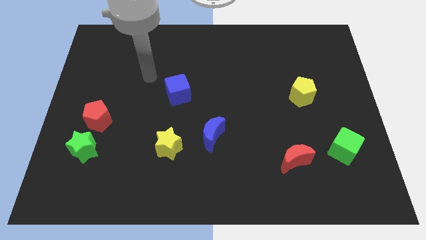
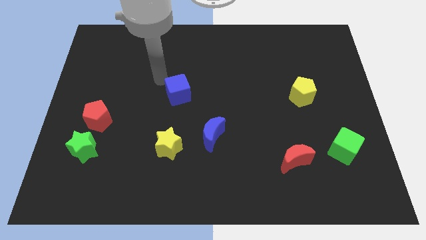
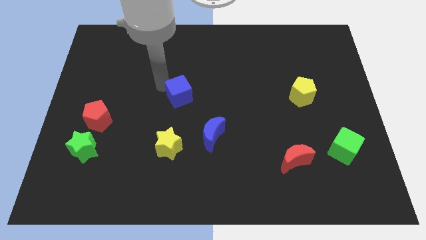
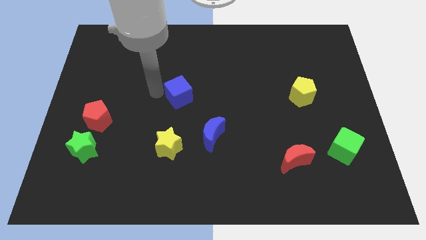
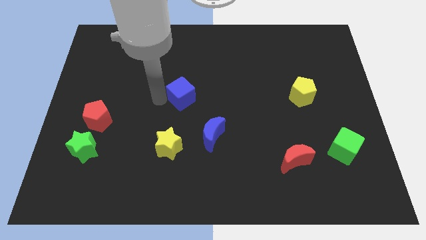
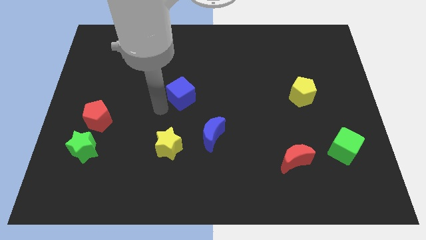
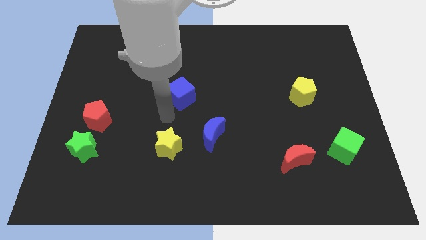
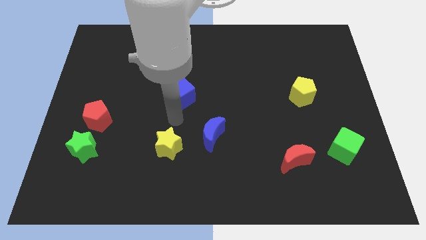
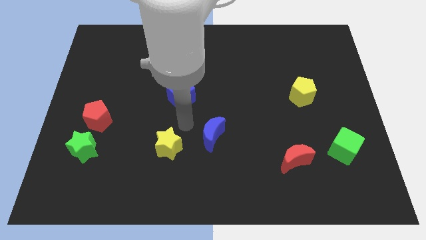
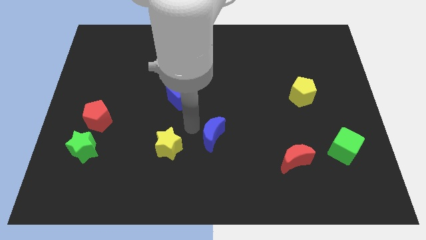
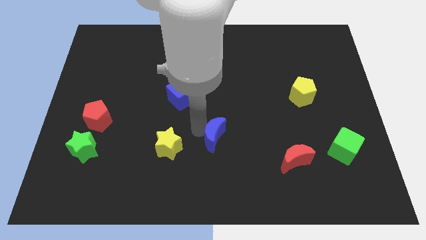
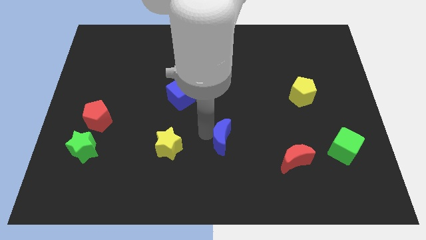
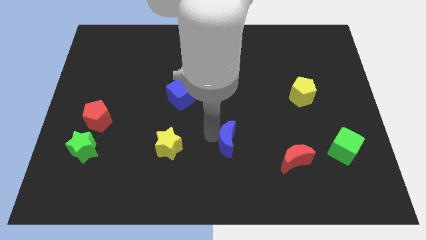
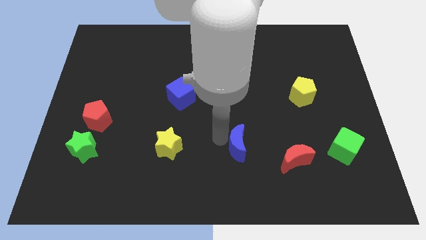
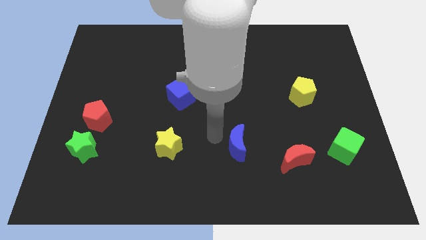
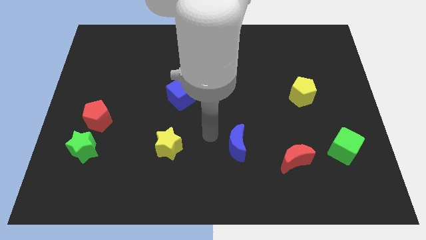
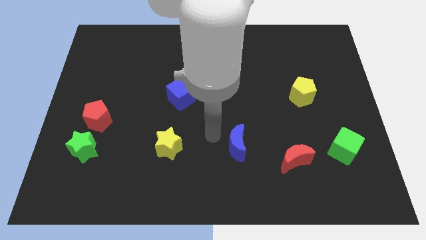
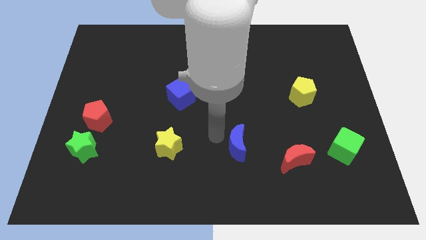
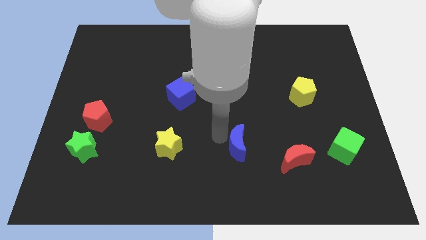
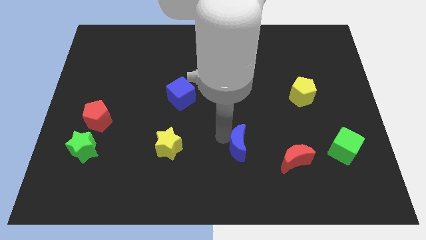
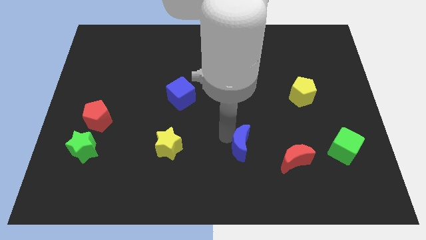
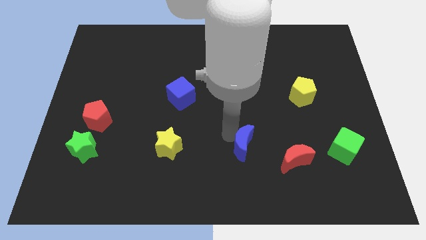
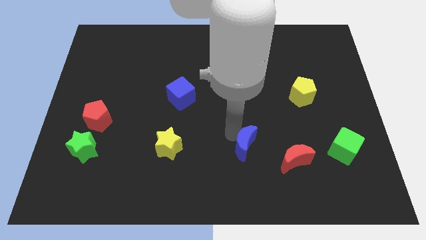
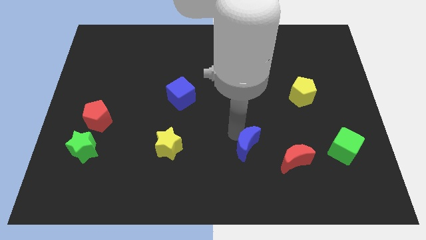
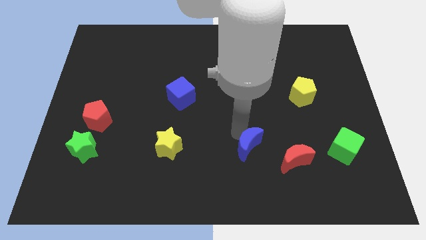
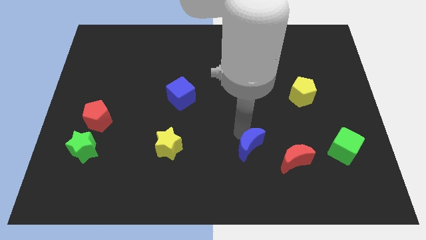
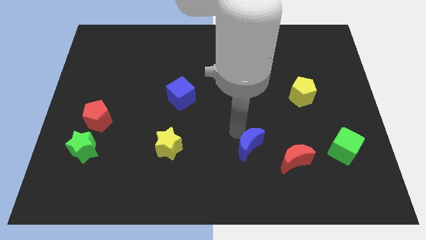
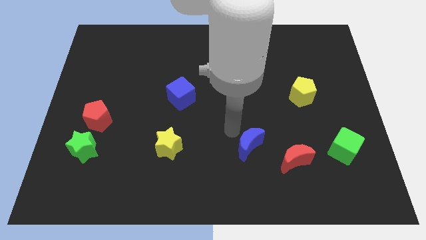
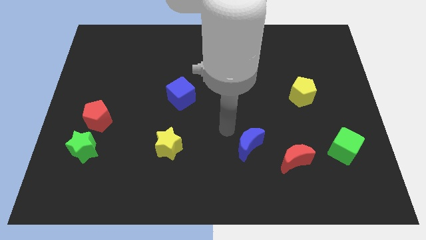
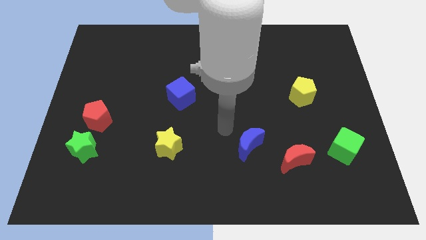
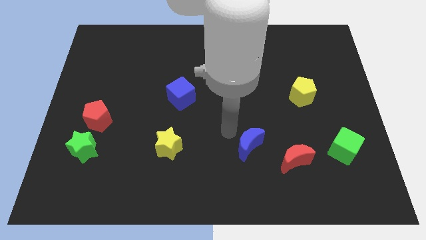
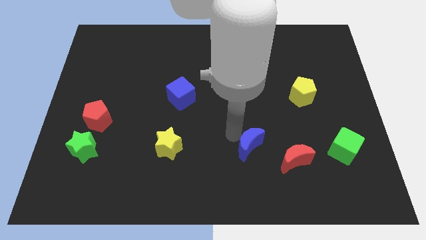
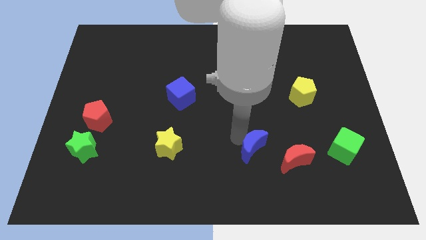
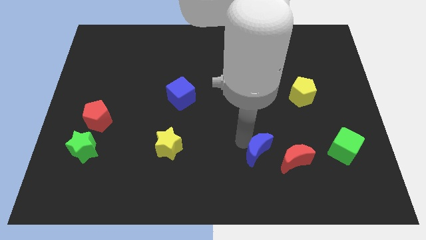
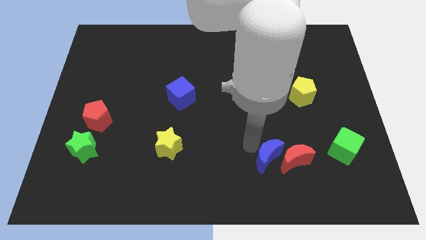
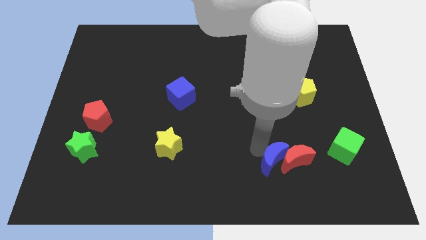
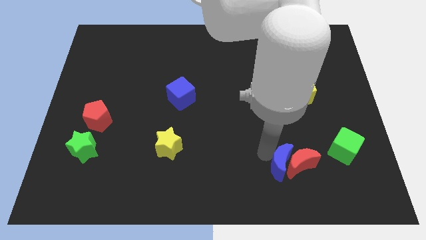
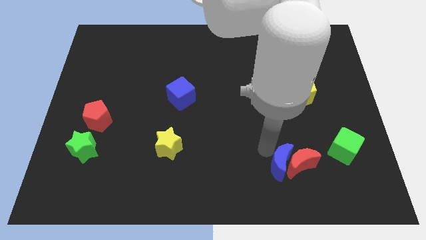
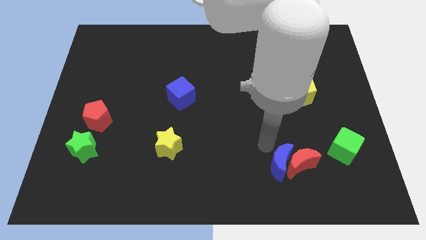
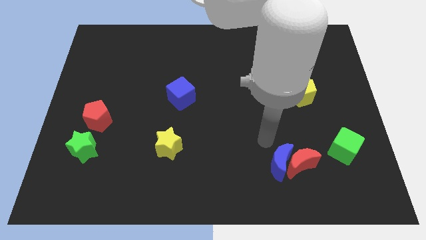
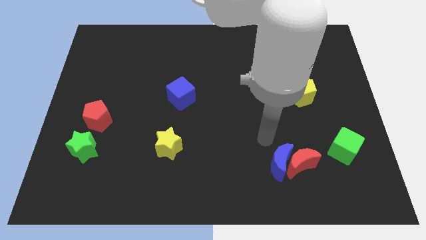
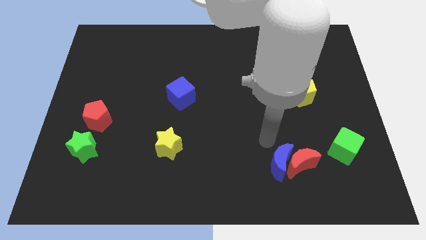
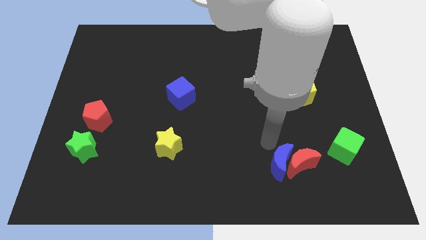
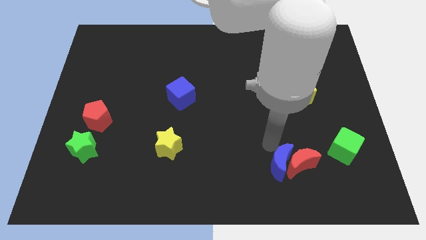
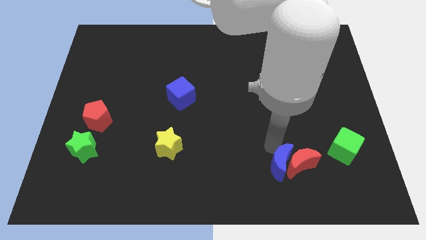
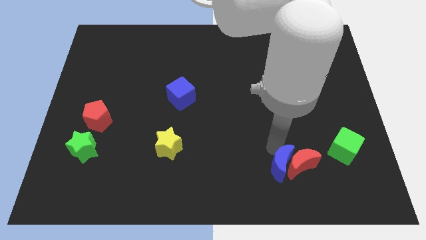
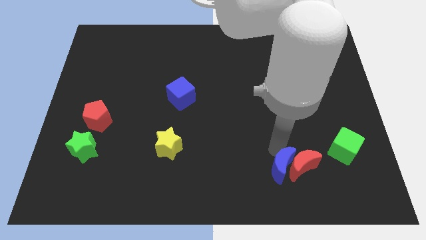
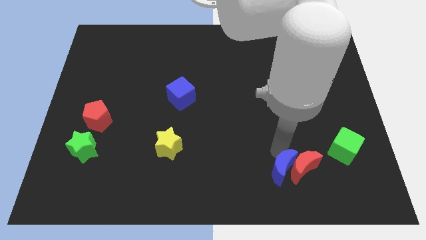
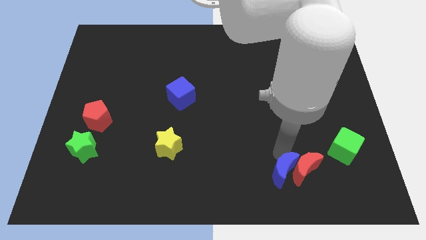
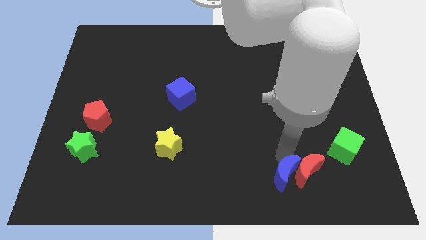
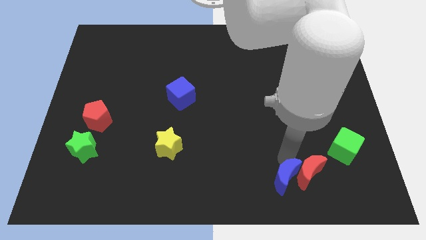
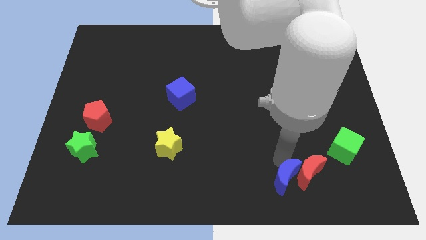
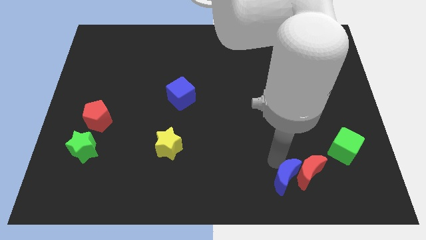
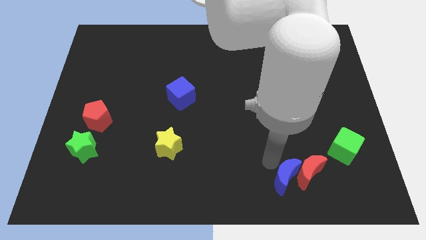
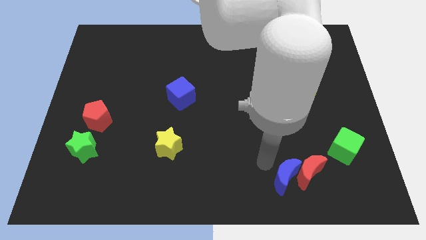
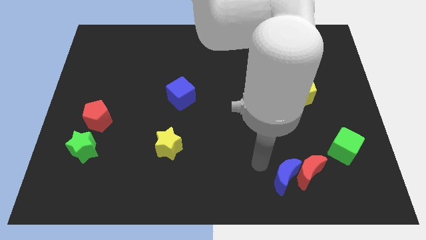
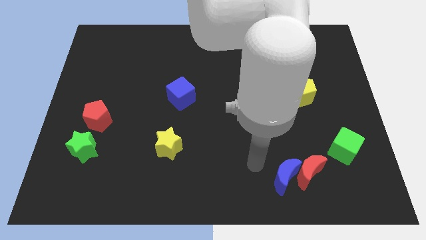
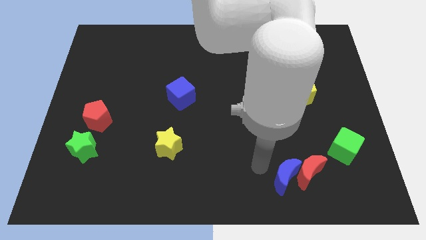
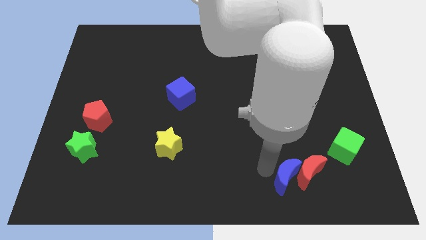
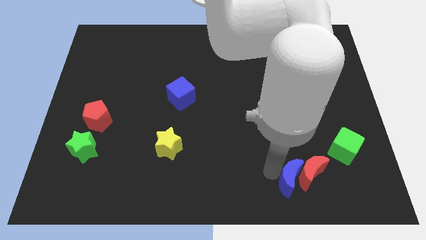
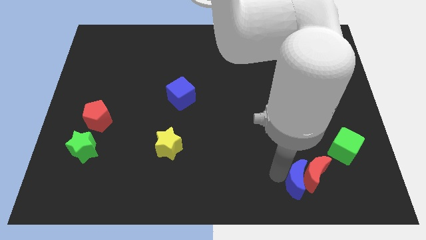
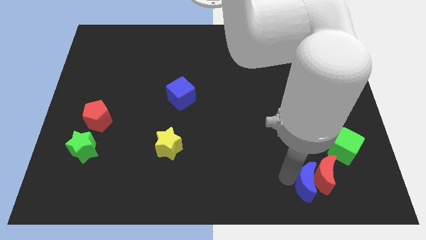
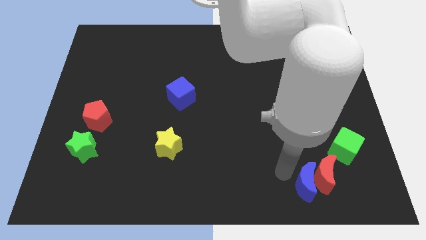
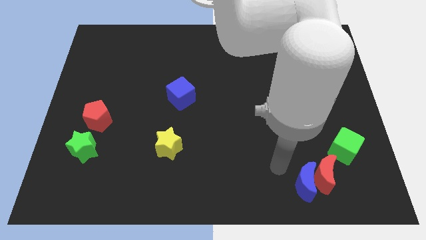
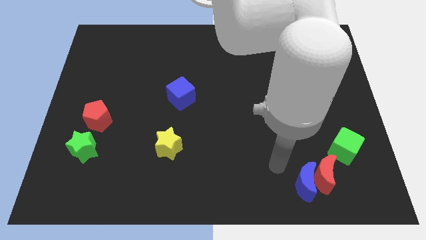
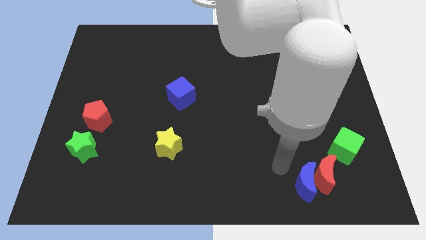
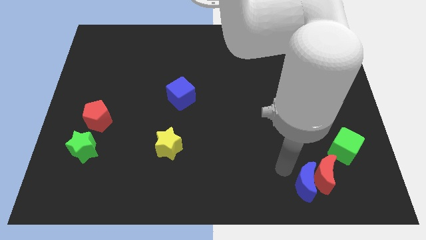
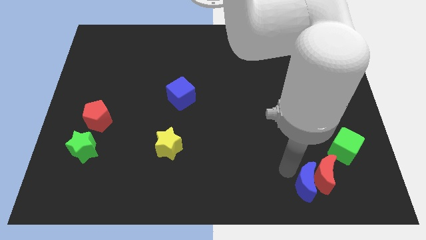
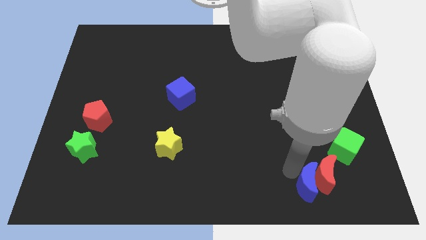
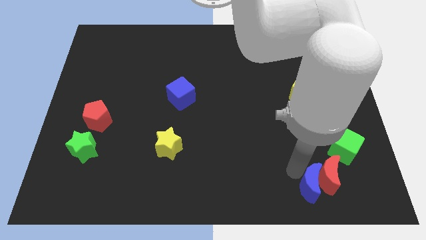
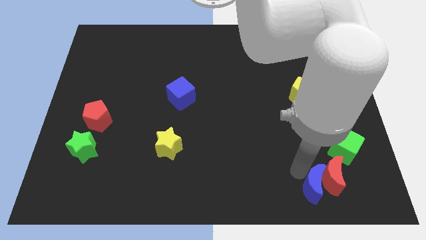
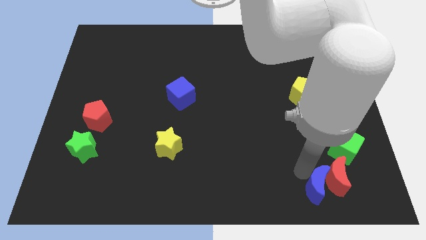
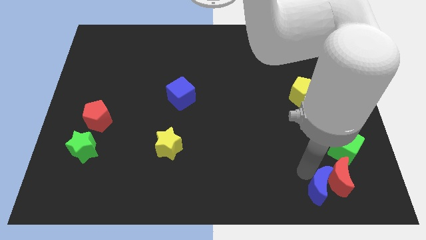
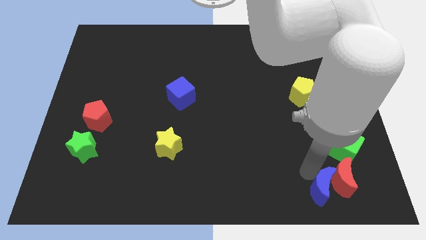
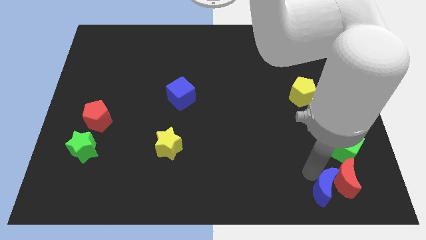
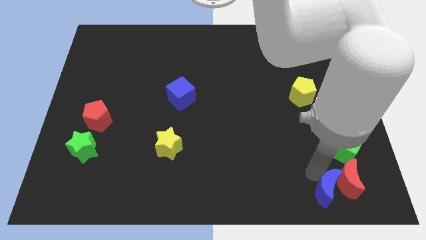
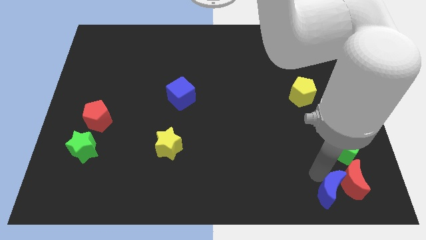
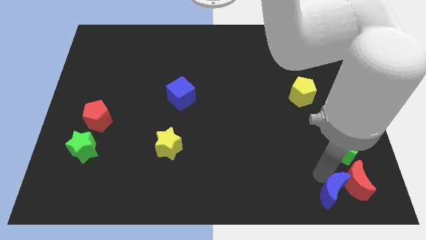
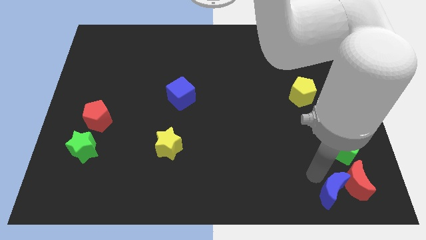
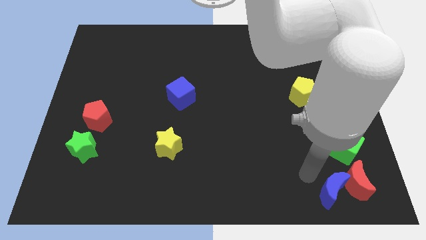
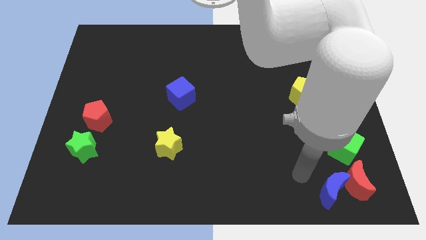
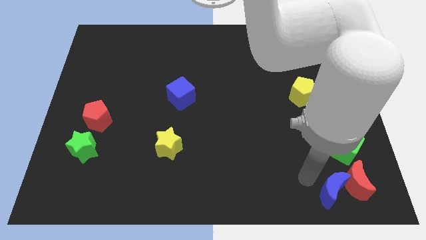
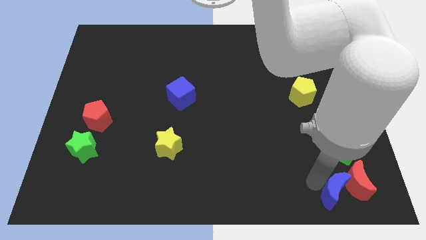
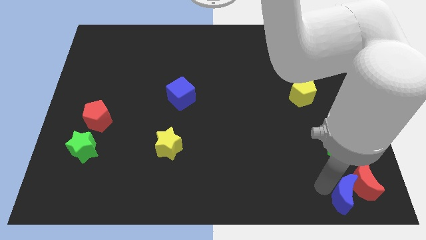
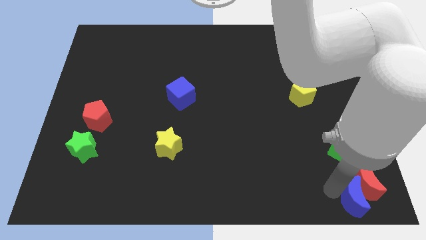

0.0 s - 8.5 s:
push the blue moon to the lower right corner
